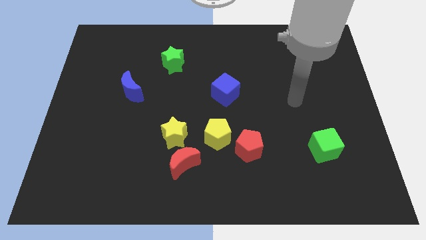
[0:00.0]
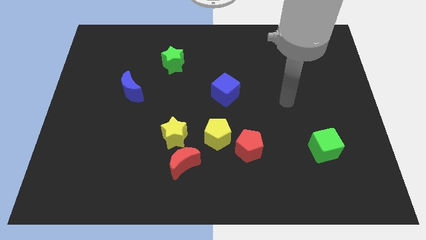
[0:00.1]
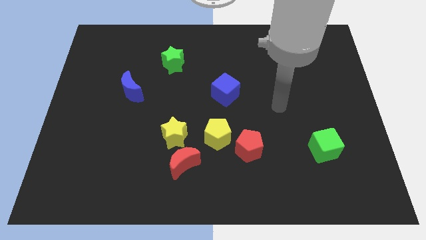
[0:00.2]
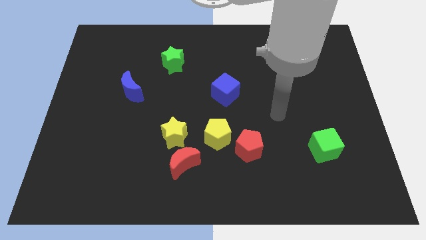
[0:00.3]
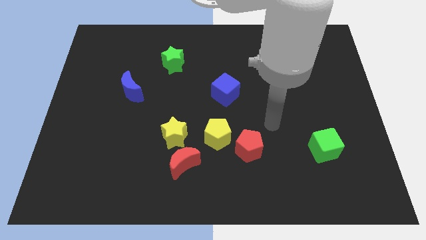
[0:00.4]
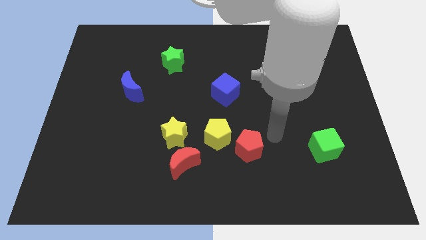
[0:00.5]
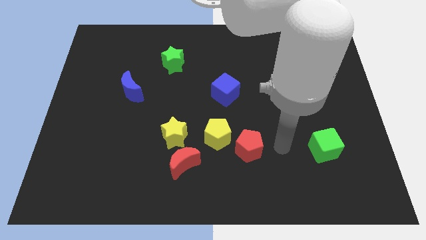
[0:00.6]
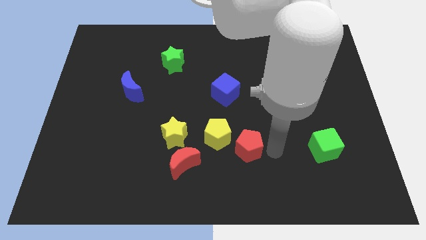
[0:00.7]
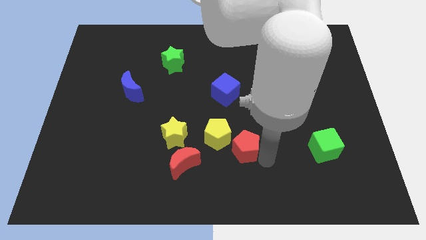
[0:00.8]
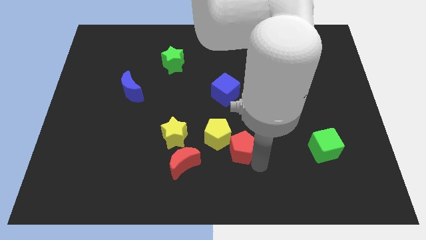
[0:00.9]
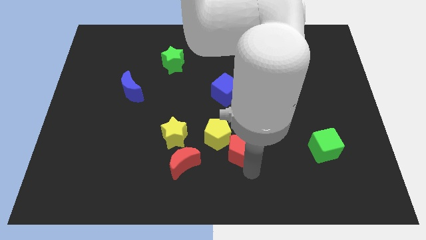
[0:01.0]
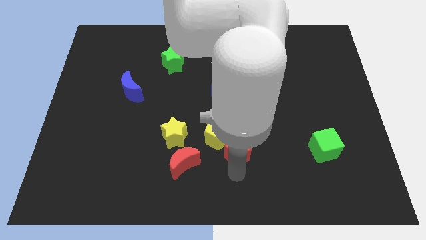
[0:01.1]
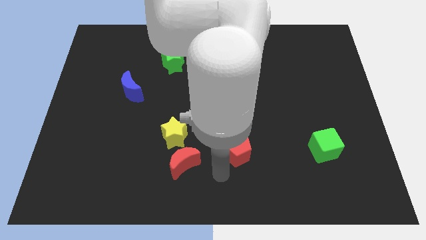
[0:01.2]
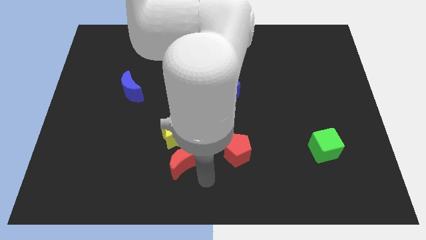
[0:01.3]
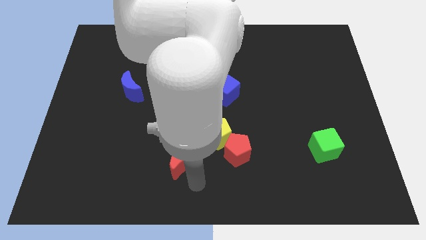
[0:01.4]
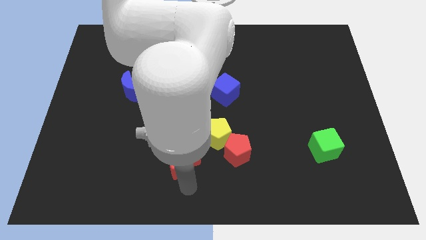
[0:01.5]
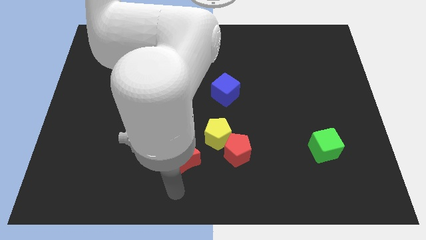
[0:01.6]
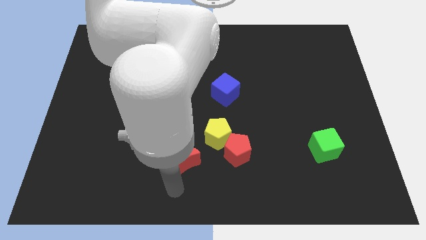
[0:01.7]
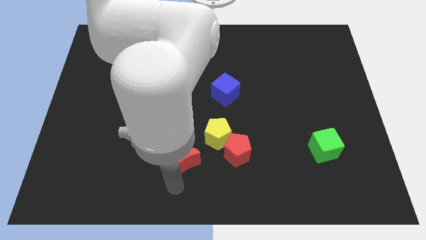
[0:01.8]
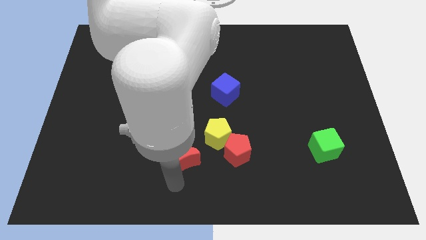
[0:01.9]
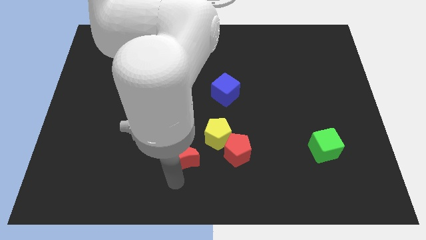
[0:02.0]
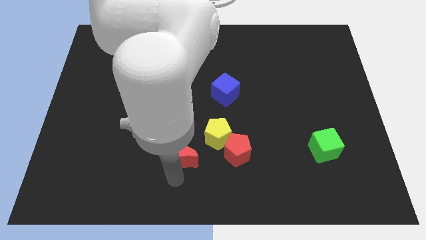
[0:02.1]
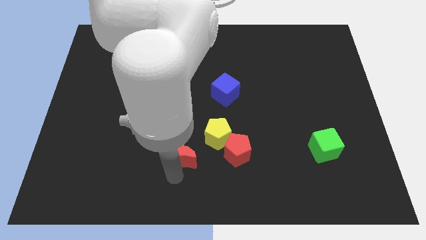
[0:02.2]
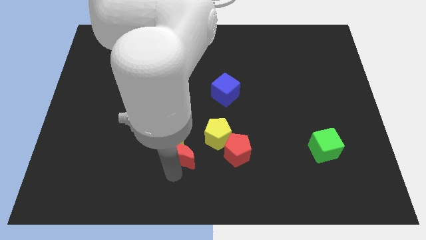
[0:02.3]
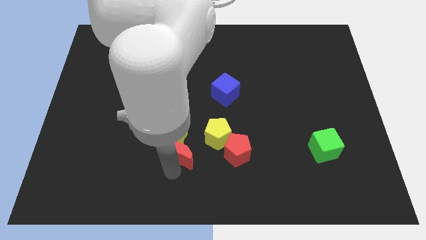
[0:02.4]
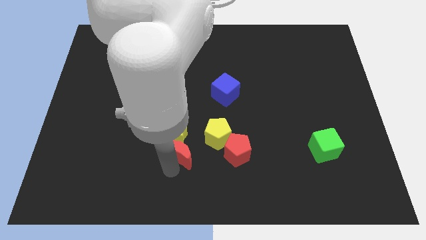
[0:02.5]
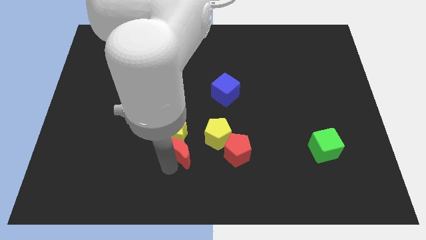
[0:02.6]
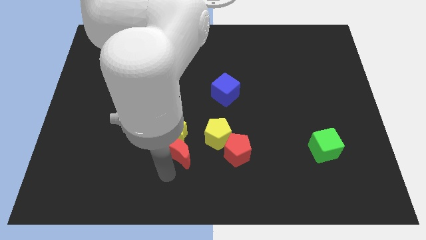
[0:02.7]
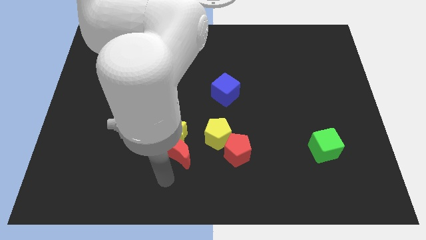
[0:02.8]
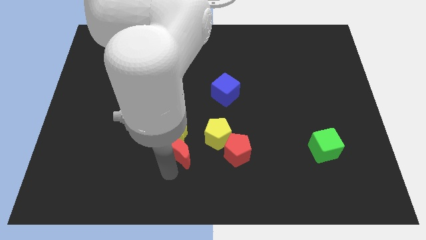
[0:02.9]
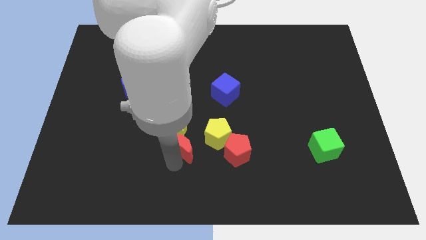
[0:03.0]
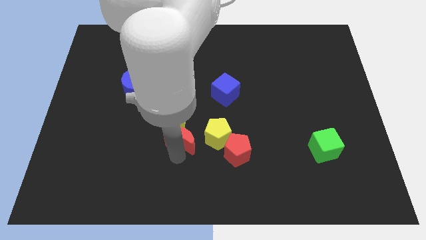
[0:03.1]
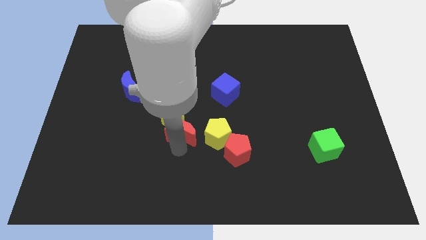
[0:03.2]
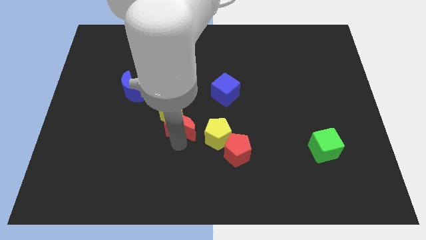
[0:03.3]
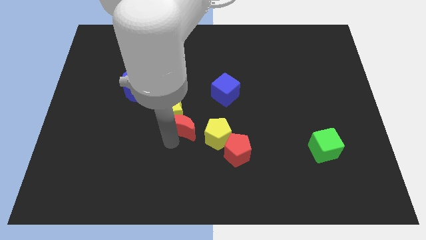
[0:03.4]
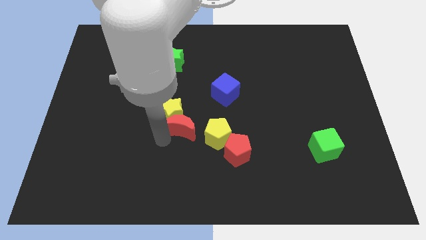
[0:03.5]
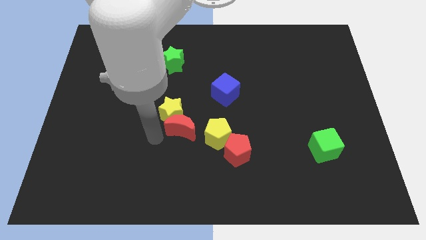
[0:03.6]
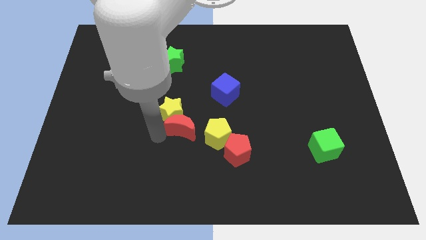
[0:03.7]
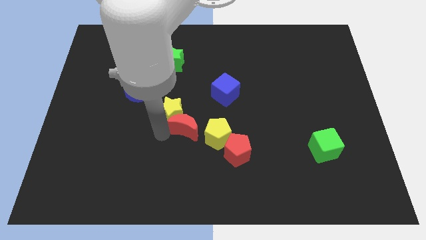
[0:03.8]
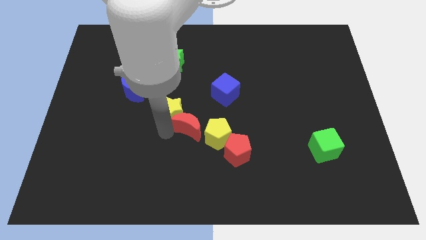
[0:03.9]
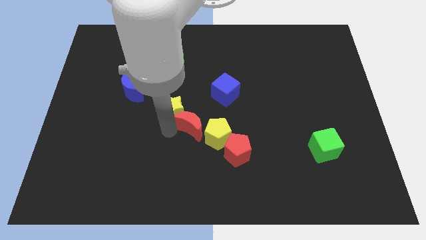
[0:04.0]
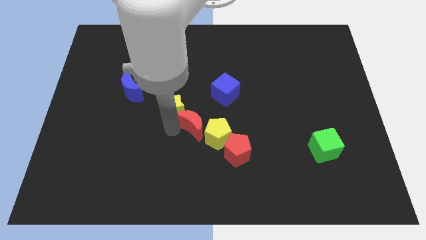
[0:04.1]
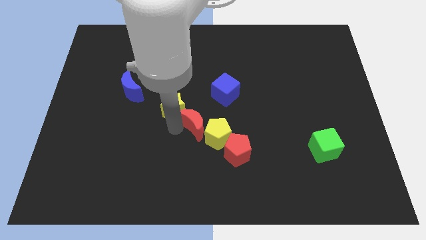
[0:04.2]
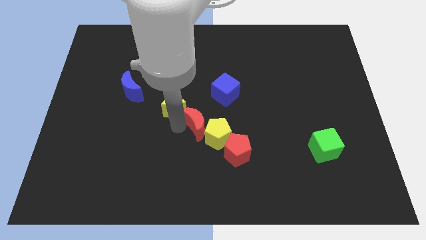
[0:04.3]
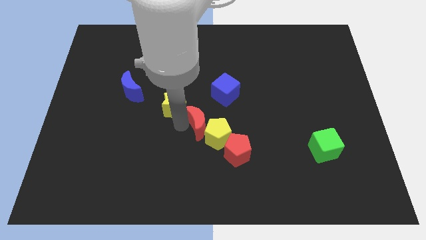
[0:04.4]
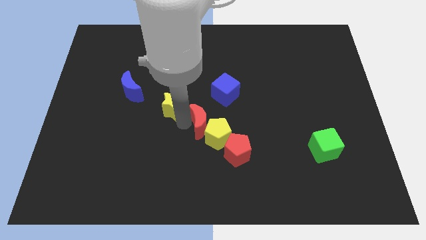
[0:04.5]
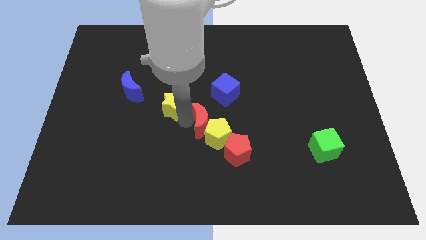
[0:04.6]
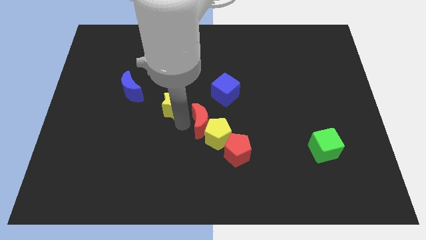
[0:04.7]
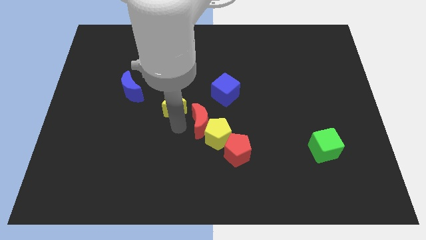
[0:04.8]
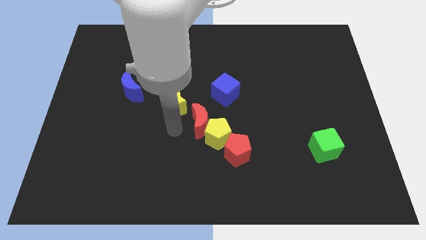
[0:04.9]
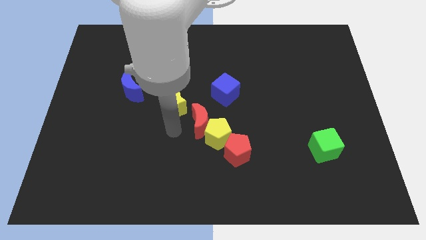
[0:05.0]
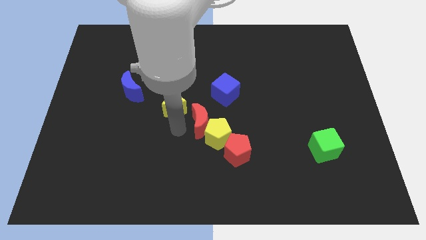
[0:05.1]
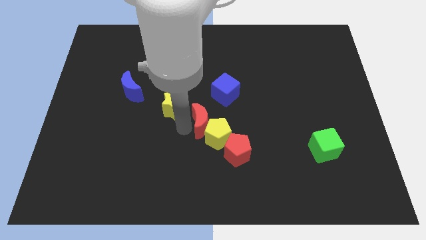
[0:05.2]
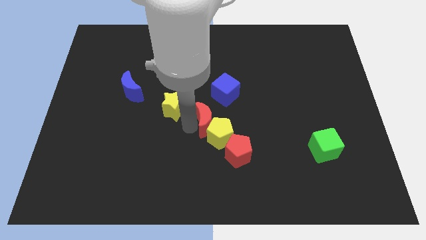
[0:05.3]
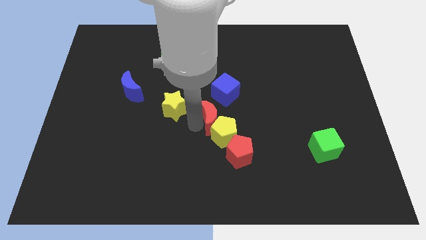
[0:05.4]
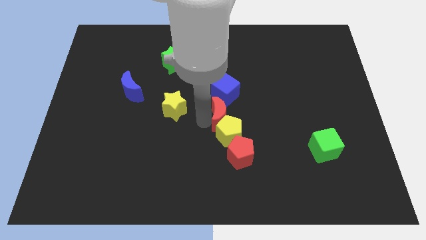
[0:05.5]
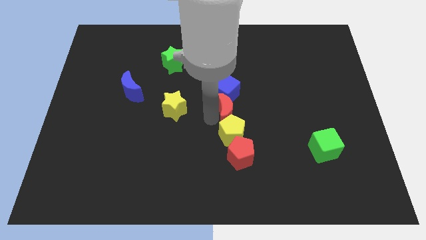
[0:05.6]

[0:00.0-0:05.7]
move the red moon to the top right side of the yellow pentagon

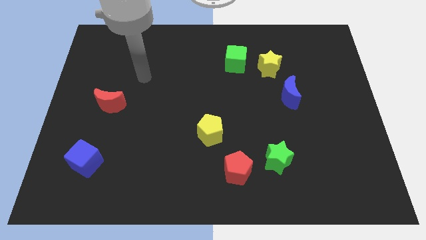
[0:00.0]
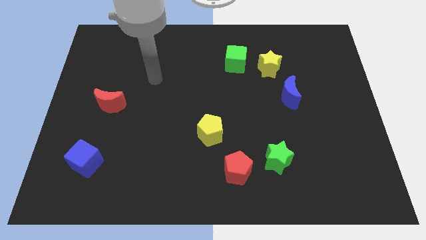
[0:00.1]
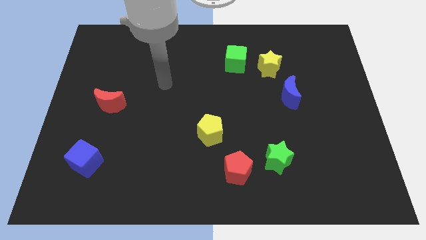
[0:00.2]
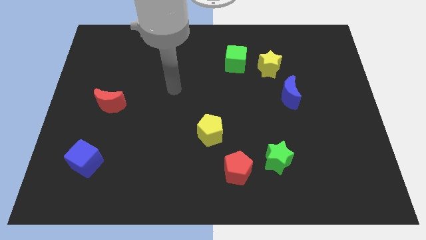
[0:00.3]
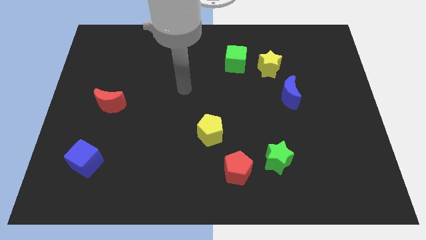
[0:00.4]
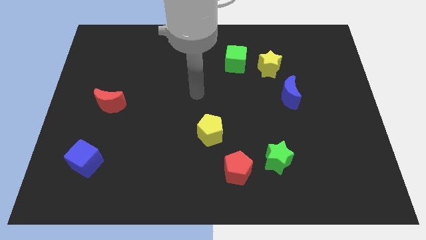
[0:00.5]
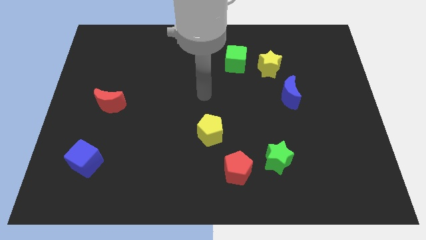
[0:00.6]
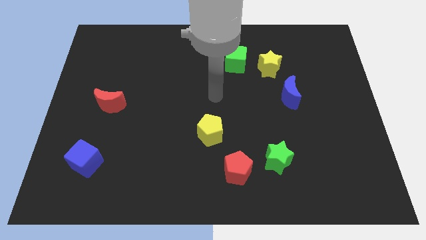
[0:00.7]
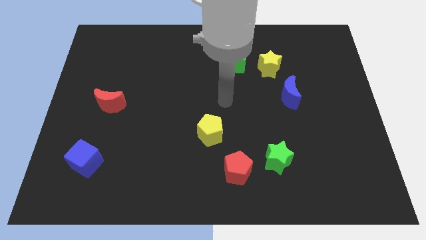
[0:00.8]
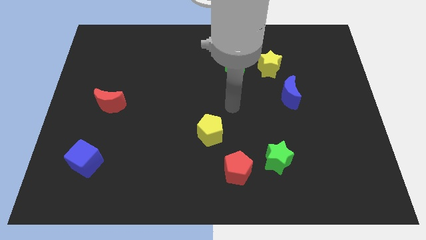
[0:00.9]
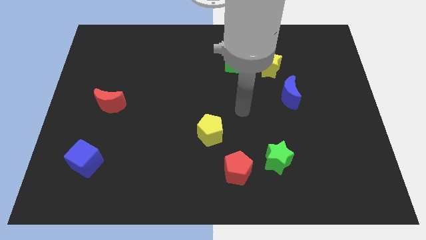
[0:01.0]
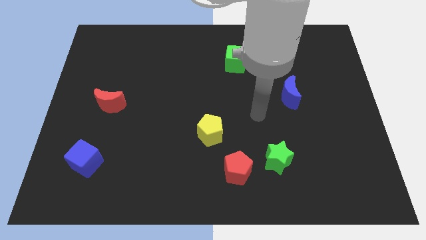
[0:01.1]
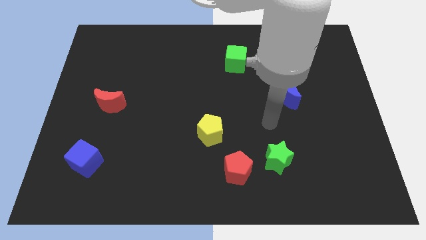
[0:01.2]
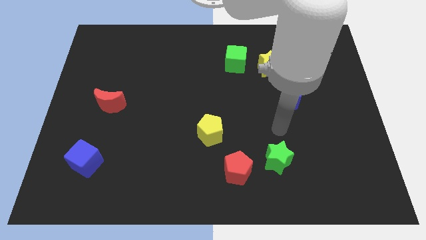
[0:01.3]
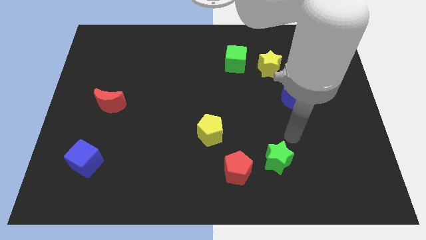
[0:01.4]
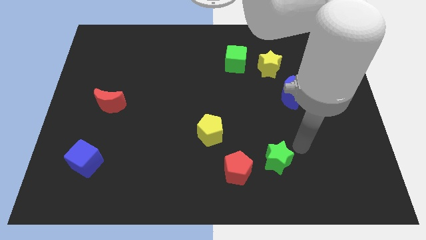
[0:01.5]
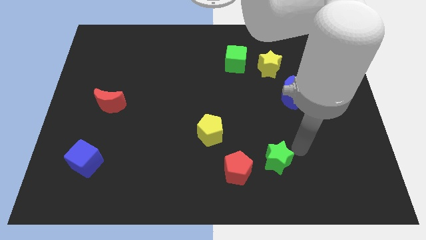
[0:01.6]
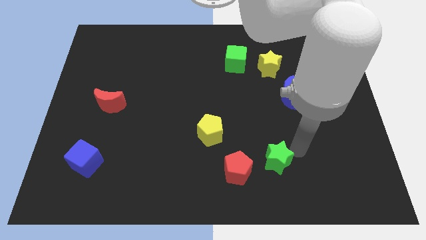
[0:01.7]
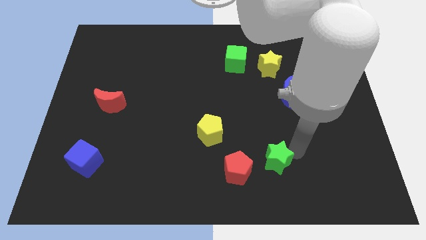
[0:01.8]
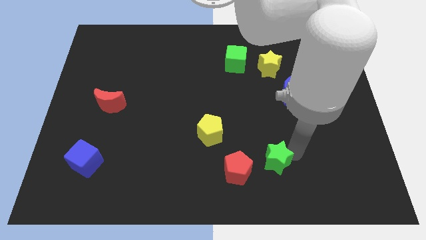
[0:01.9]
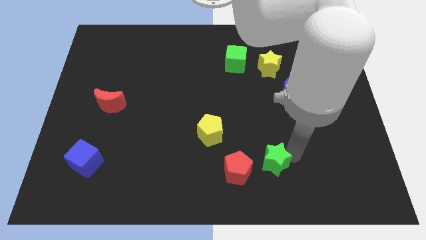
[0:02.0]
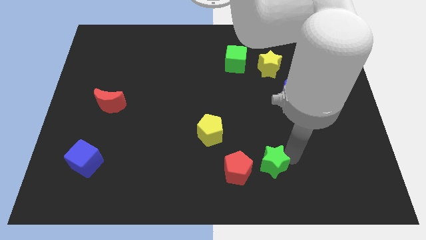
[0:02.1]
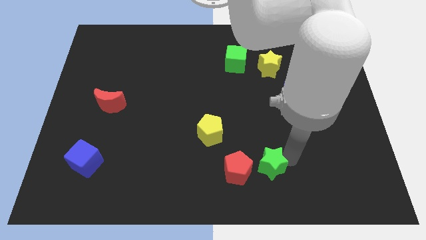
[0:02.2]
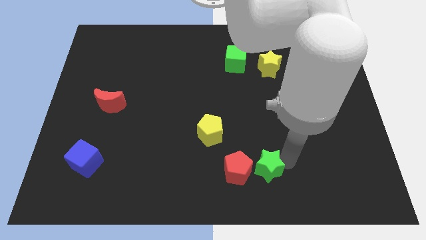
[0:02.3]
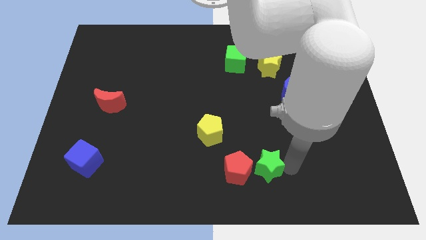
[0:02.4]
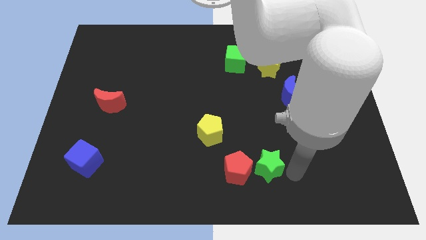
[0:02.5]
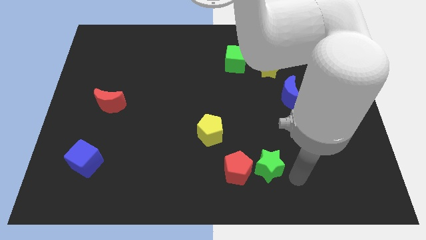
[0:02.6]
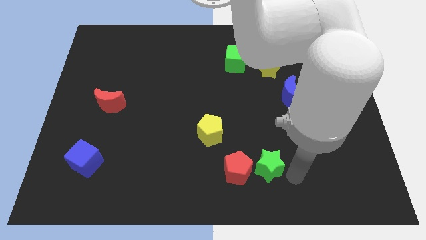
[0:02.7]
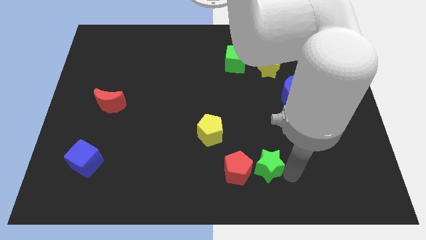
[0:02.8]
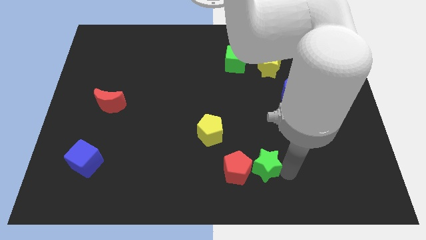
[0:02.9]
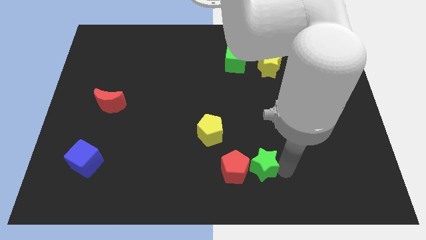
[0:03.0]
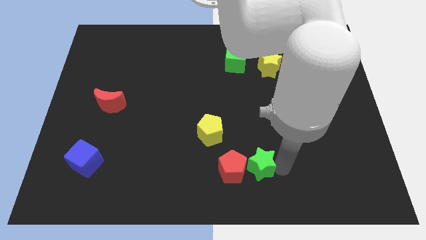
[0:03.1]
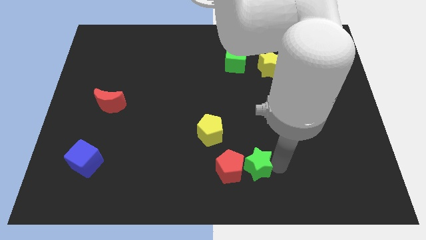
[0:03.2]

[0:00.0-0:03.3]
put the green star diagonally down and to the right of the yellow pentagon
